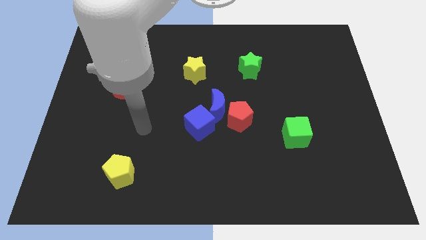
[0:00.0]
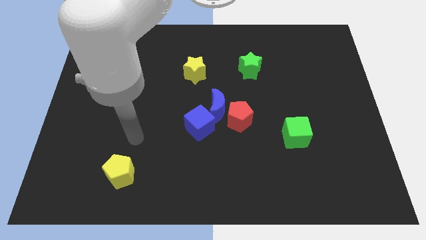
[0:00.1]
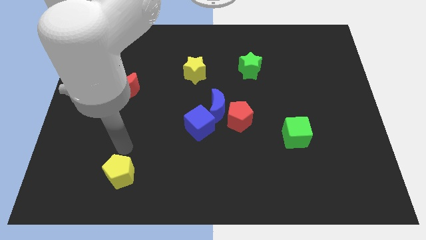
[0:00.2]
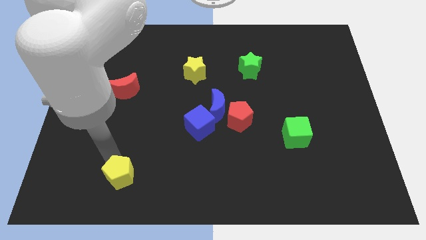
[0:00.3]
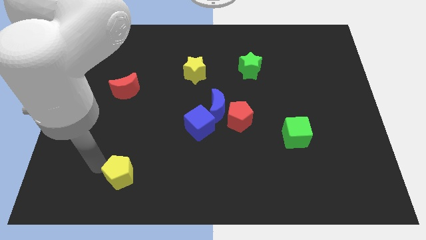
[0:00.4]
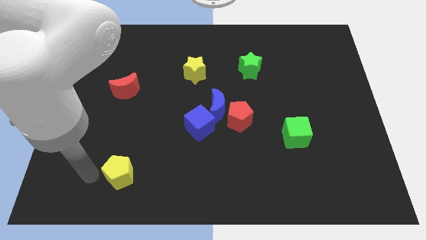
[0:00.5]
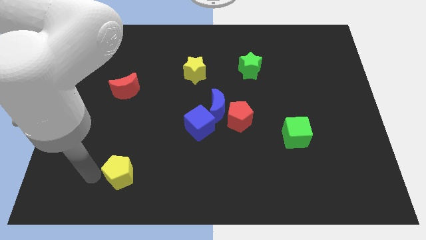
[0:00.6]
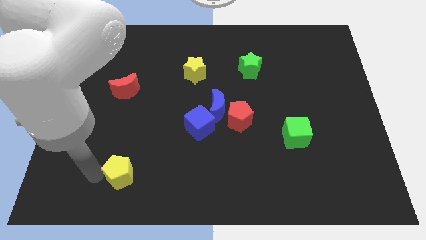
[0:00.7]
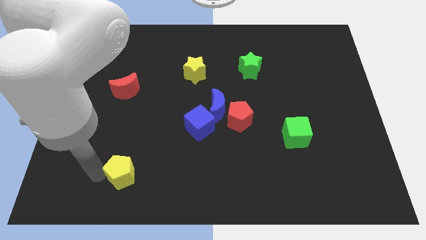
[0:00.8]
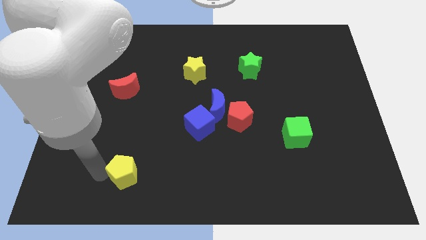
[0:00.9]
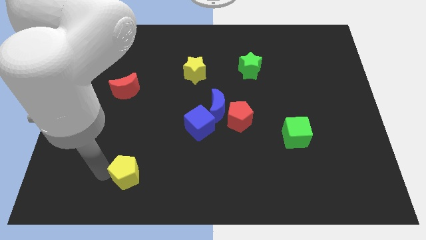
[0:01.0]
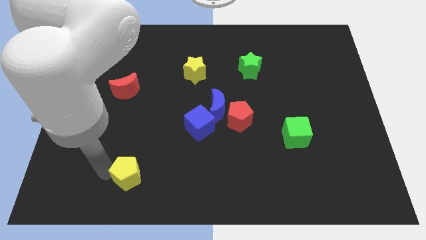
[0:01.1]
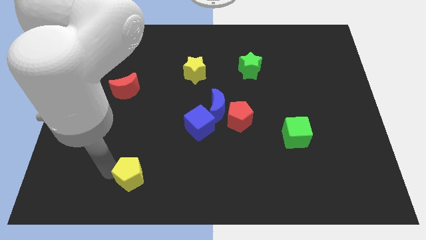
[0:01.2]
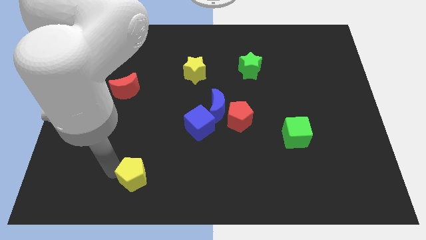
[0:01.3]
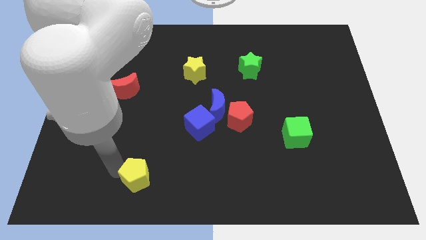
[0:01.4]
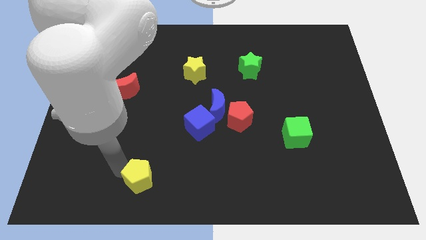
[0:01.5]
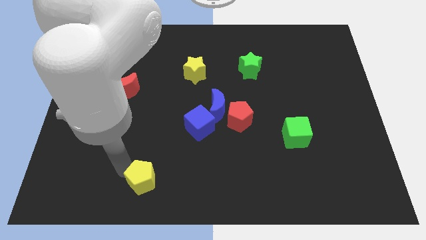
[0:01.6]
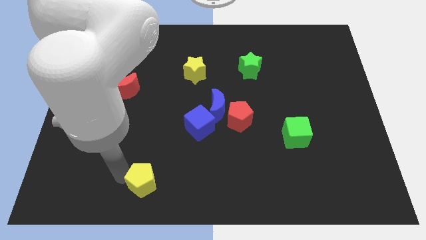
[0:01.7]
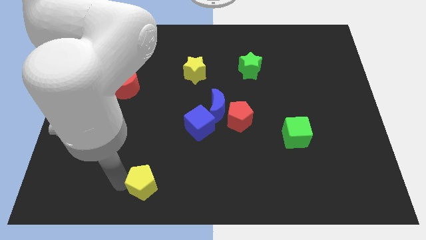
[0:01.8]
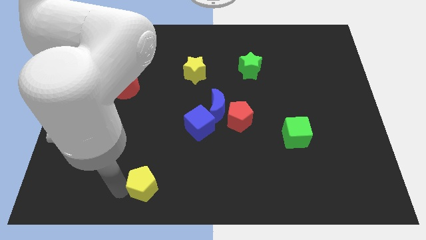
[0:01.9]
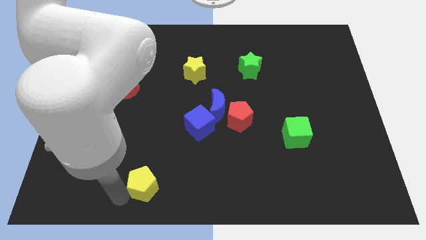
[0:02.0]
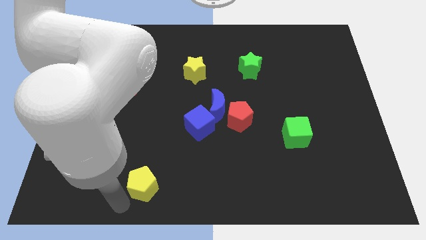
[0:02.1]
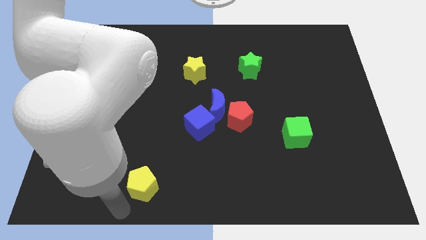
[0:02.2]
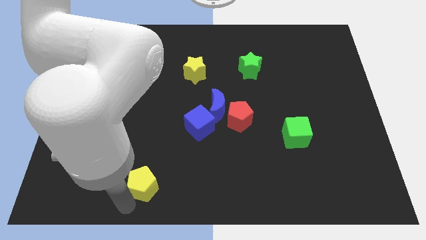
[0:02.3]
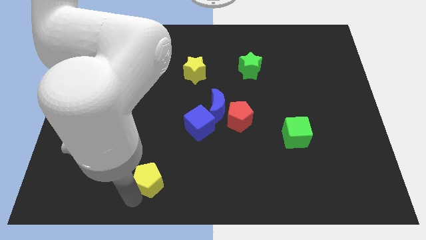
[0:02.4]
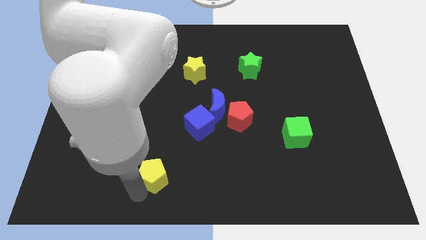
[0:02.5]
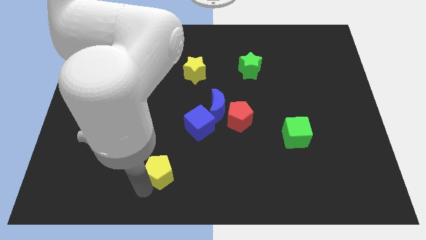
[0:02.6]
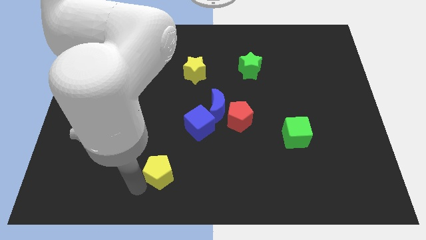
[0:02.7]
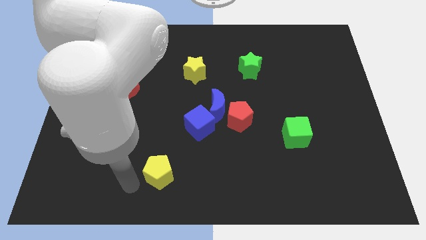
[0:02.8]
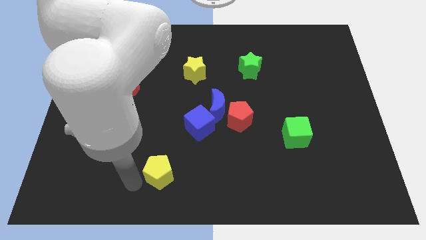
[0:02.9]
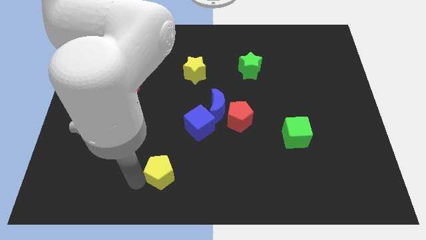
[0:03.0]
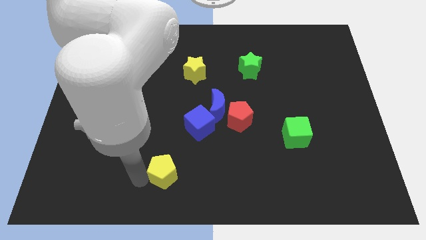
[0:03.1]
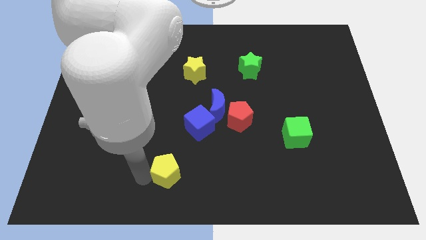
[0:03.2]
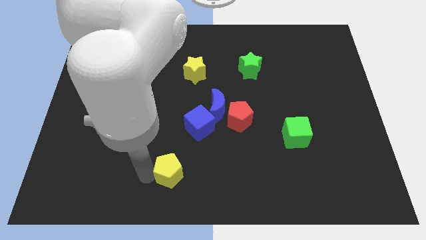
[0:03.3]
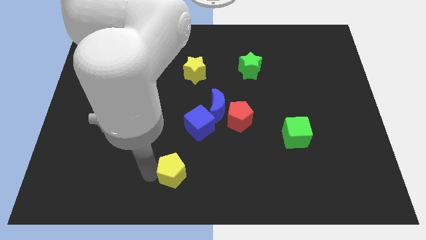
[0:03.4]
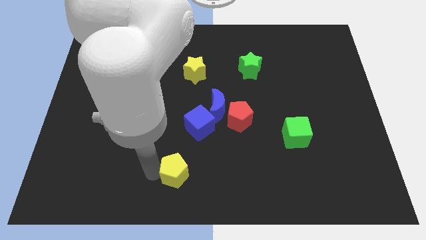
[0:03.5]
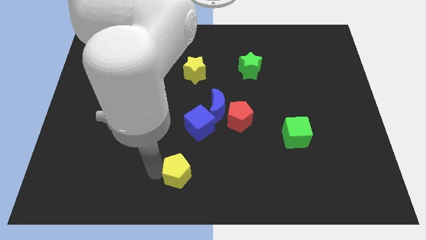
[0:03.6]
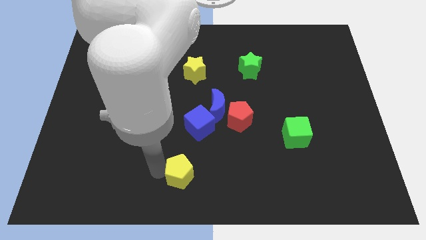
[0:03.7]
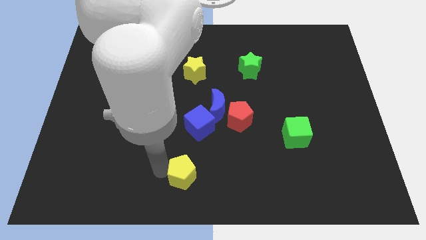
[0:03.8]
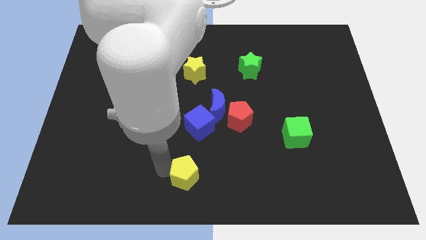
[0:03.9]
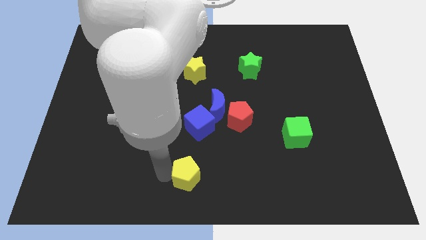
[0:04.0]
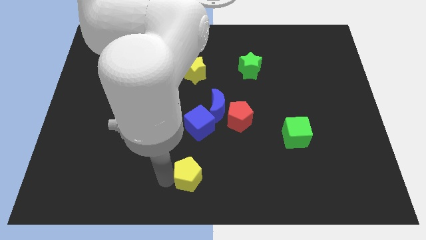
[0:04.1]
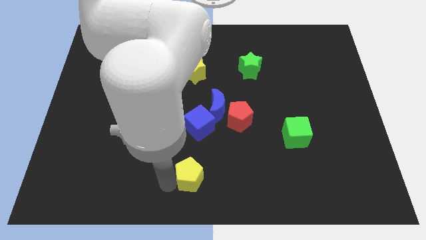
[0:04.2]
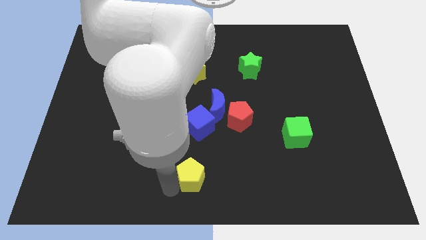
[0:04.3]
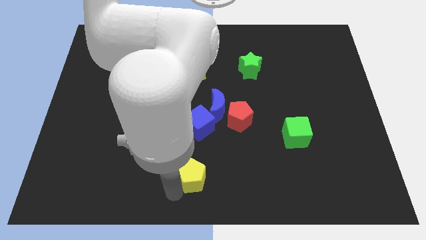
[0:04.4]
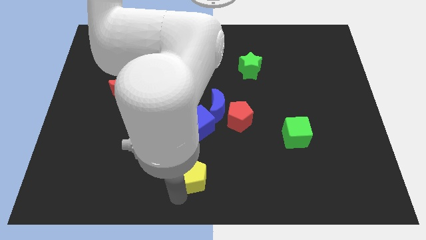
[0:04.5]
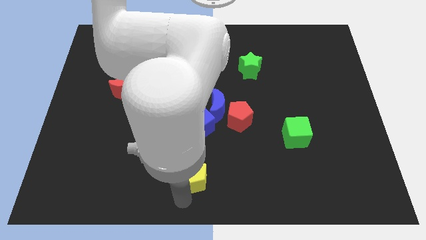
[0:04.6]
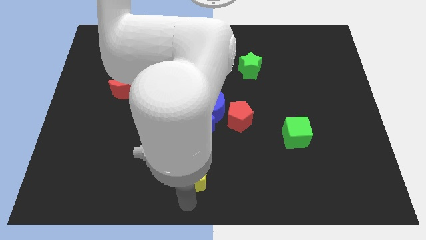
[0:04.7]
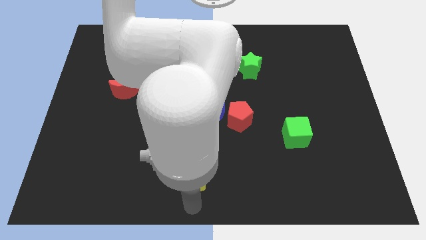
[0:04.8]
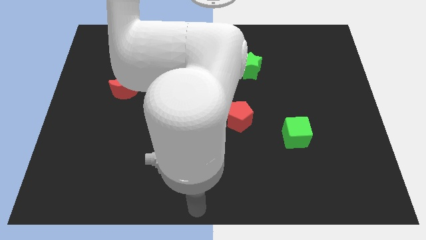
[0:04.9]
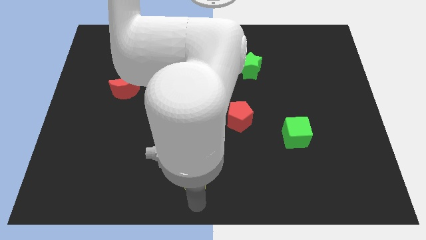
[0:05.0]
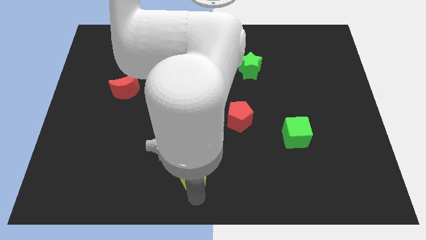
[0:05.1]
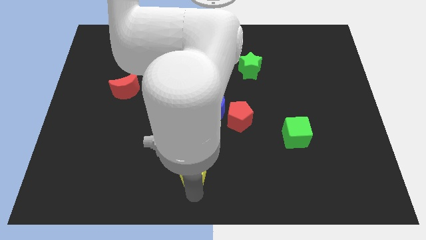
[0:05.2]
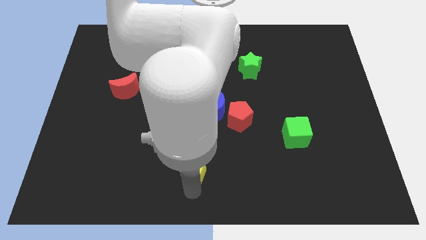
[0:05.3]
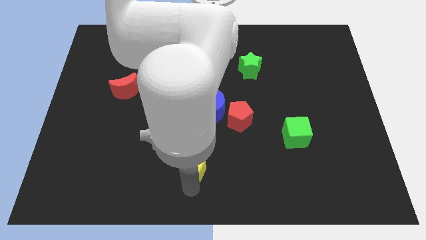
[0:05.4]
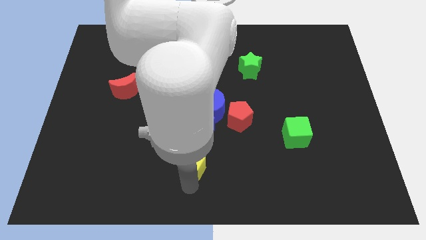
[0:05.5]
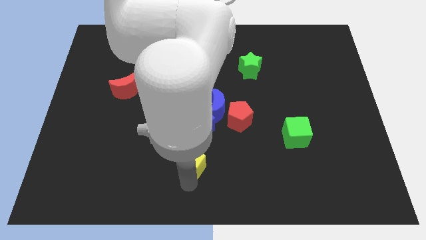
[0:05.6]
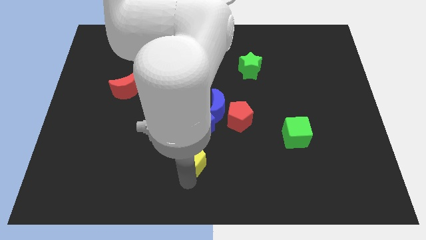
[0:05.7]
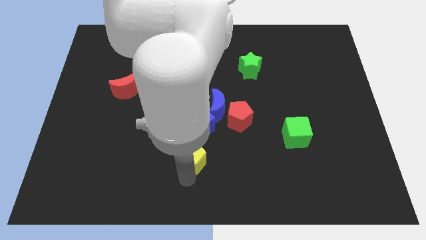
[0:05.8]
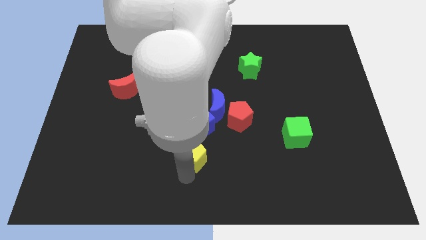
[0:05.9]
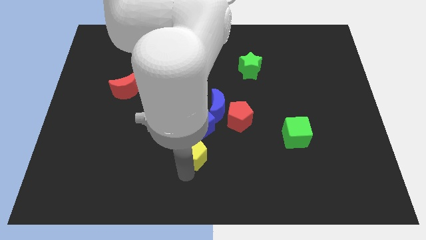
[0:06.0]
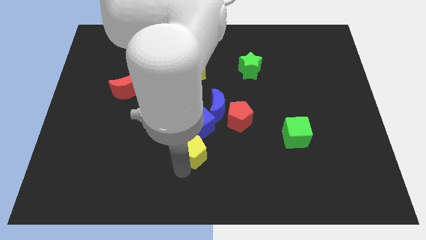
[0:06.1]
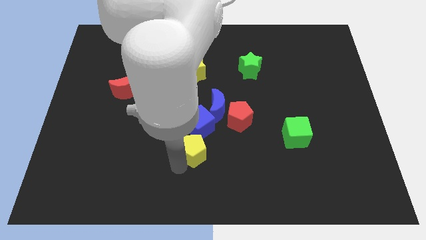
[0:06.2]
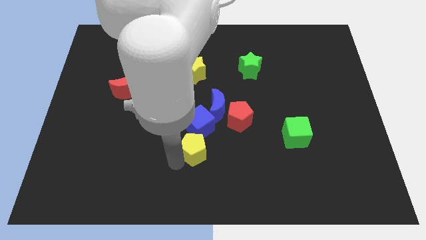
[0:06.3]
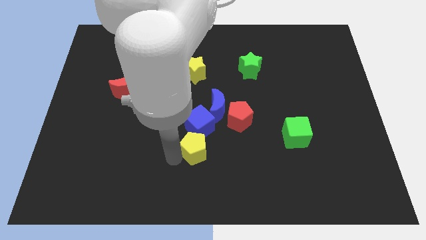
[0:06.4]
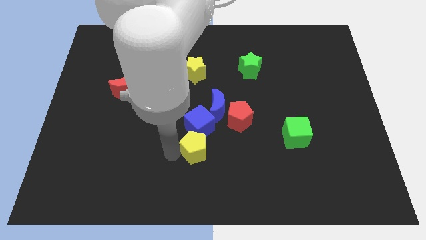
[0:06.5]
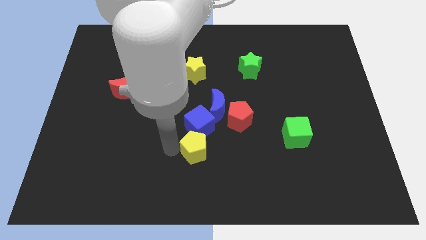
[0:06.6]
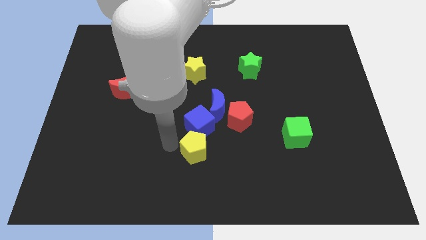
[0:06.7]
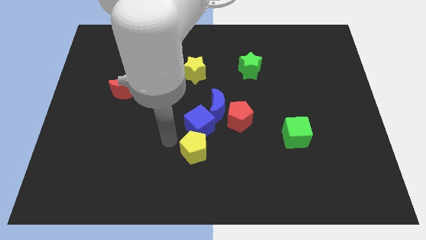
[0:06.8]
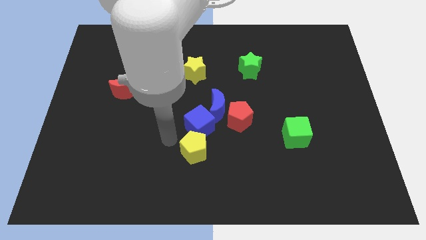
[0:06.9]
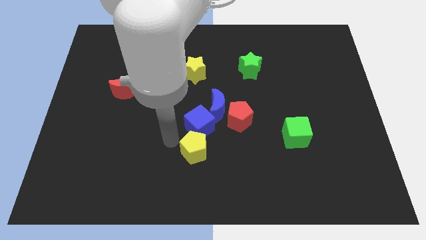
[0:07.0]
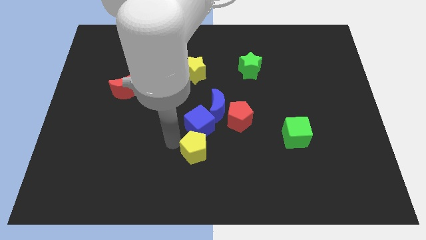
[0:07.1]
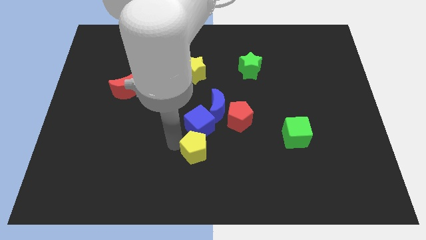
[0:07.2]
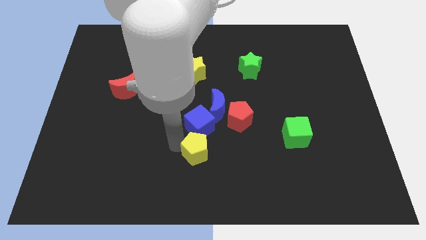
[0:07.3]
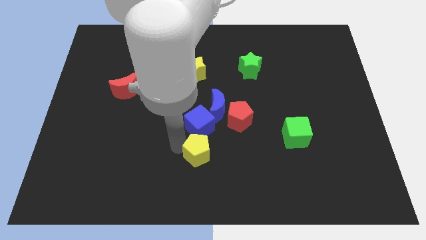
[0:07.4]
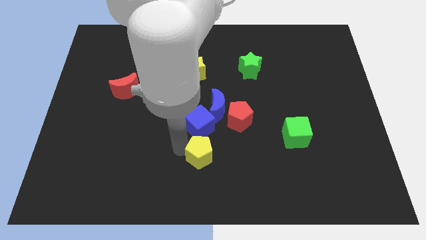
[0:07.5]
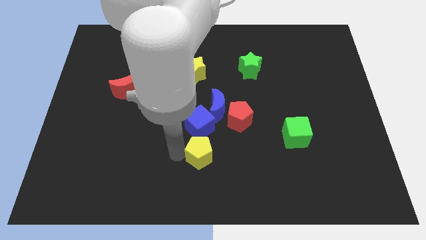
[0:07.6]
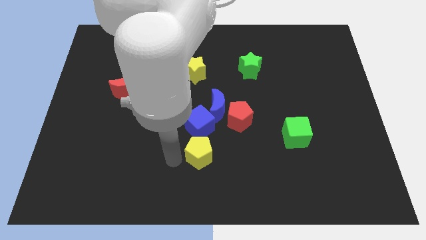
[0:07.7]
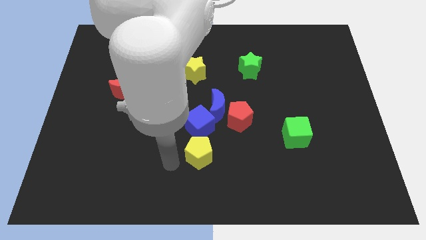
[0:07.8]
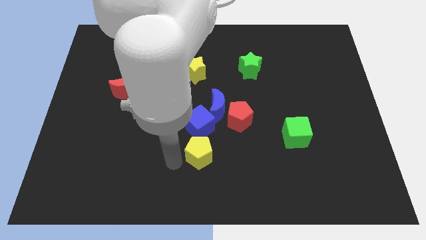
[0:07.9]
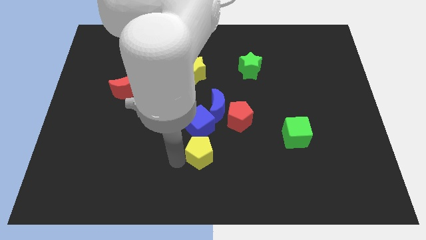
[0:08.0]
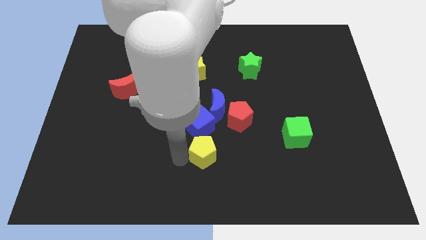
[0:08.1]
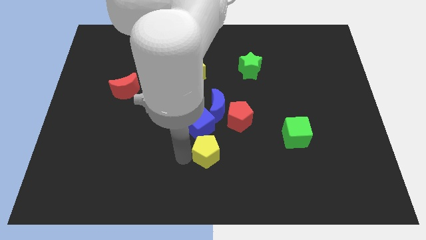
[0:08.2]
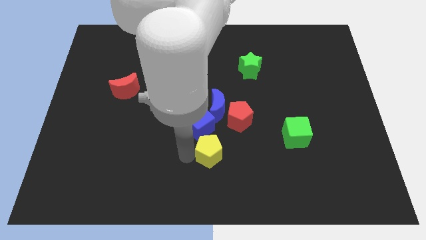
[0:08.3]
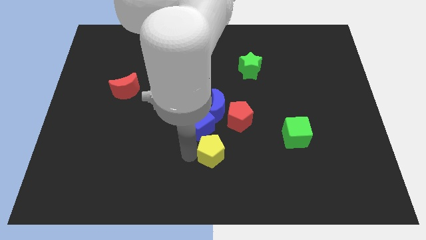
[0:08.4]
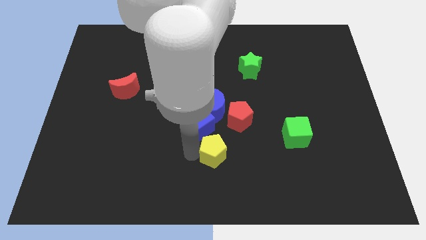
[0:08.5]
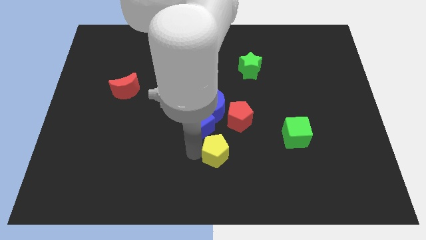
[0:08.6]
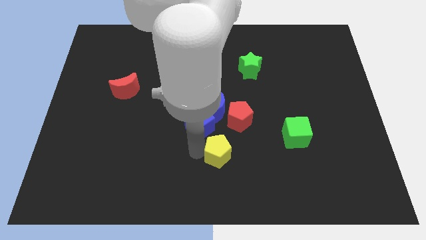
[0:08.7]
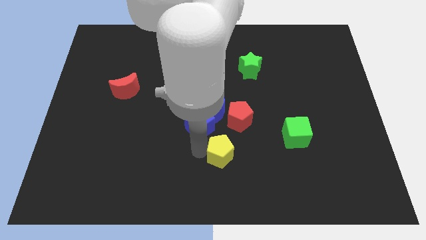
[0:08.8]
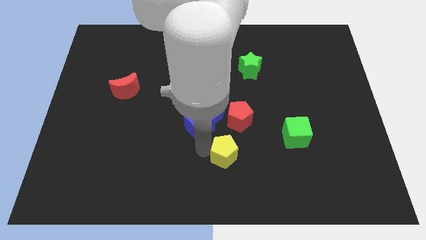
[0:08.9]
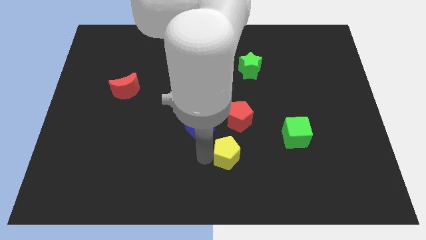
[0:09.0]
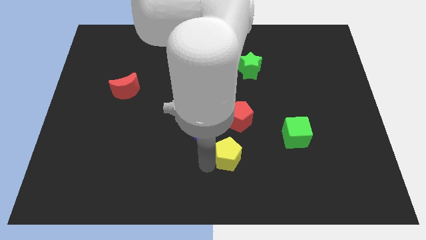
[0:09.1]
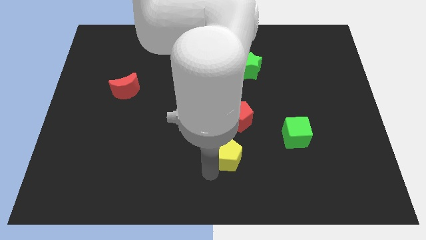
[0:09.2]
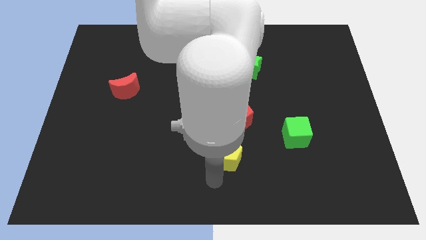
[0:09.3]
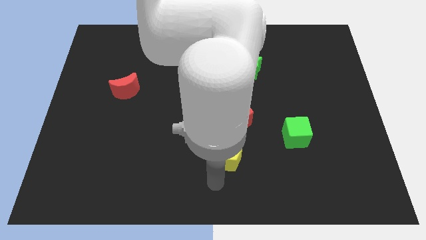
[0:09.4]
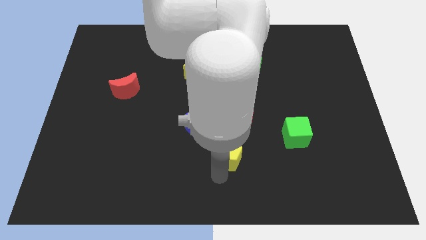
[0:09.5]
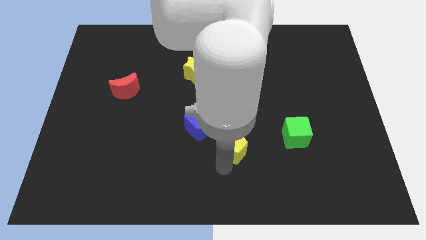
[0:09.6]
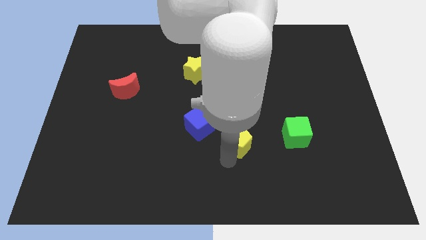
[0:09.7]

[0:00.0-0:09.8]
slide the yellow pentagon to the right side of the blue cube
